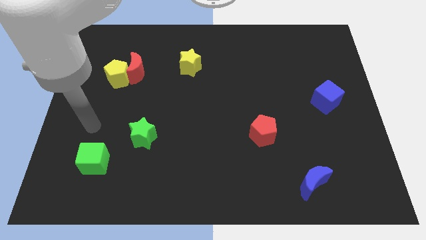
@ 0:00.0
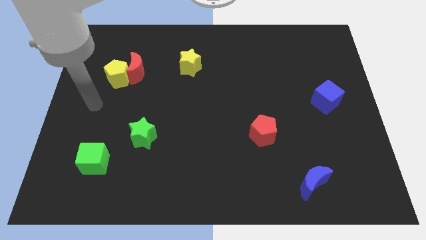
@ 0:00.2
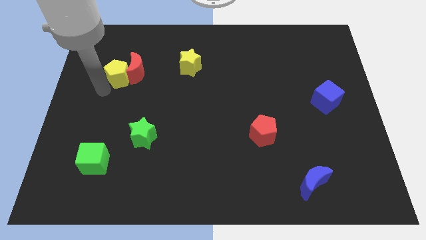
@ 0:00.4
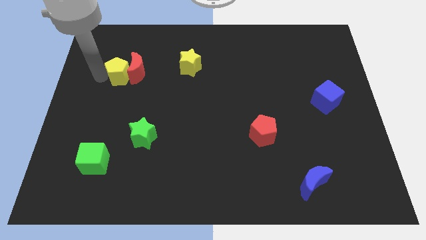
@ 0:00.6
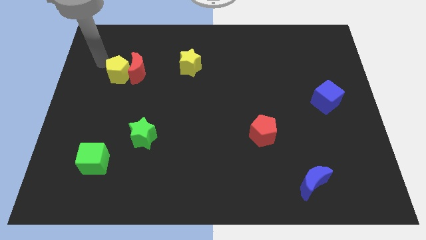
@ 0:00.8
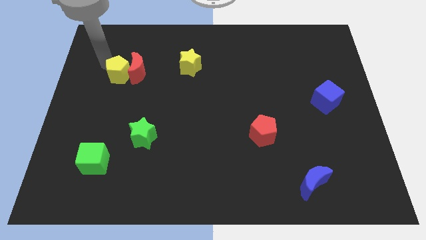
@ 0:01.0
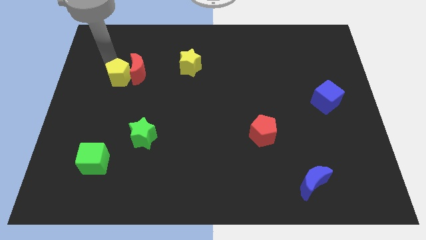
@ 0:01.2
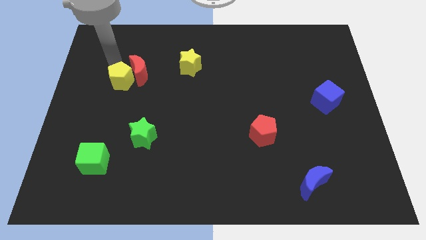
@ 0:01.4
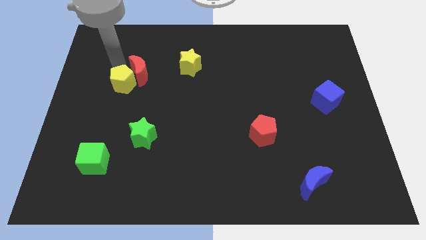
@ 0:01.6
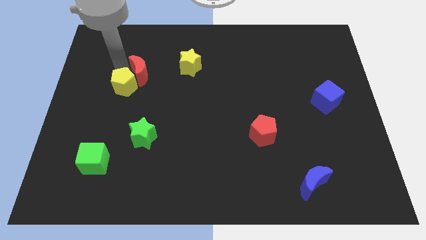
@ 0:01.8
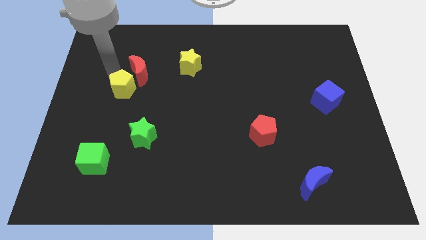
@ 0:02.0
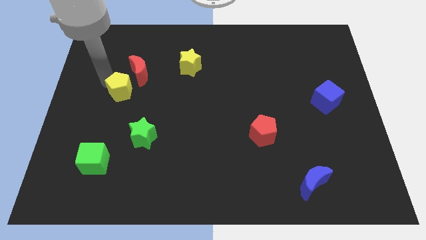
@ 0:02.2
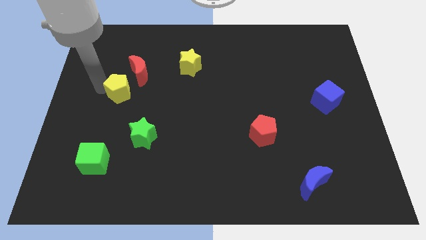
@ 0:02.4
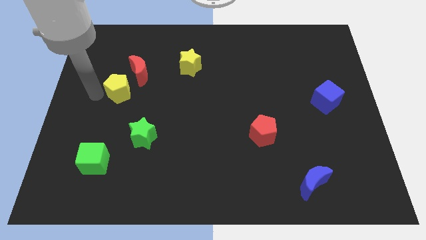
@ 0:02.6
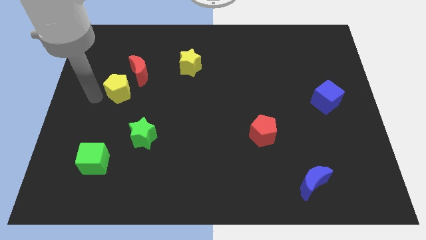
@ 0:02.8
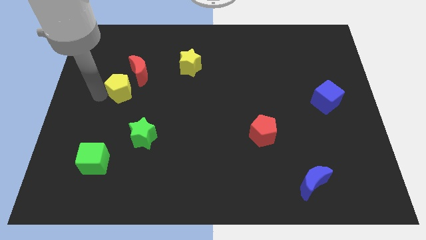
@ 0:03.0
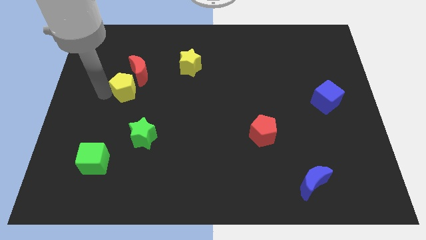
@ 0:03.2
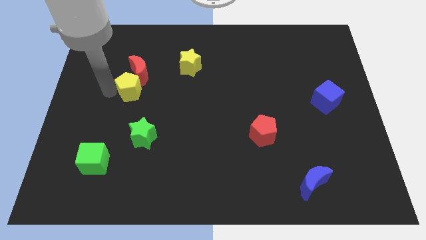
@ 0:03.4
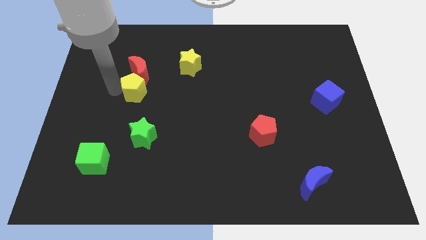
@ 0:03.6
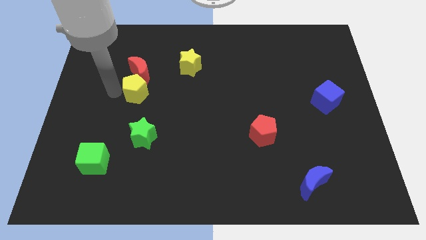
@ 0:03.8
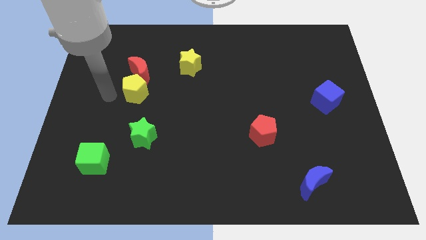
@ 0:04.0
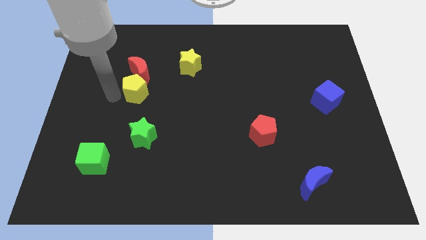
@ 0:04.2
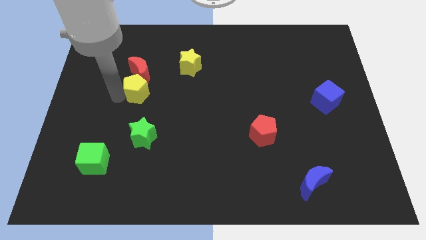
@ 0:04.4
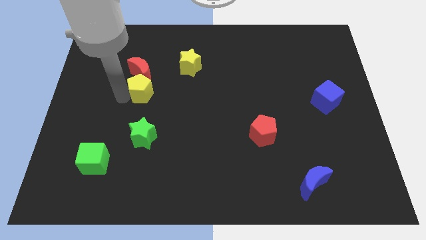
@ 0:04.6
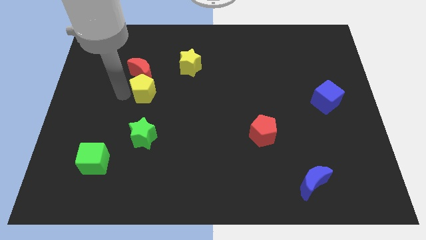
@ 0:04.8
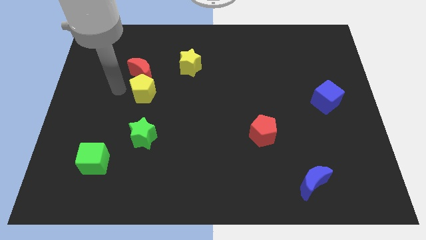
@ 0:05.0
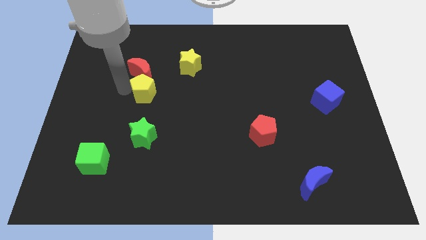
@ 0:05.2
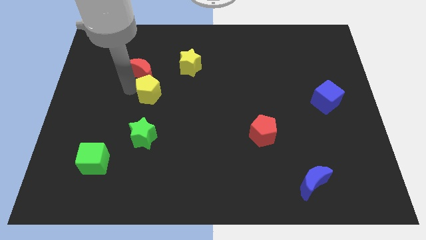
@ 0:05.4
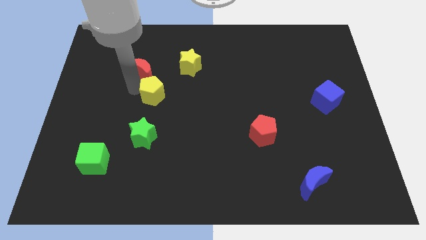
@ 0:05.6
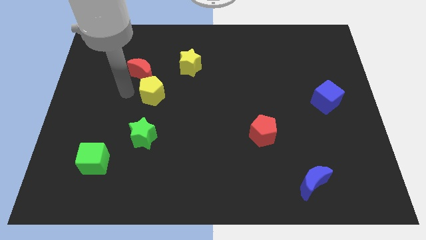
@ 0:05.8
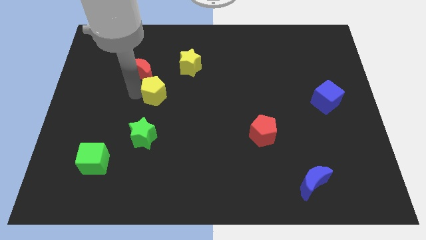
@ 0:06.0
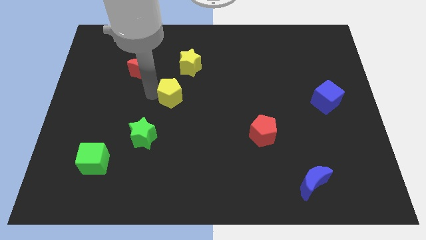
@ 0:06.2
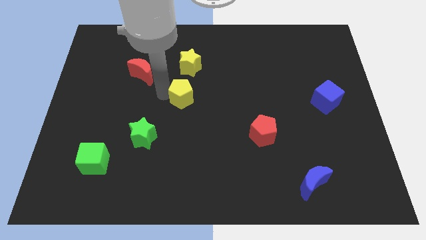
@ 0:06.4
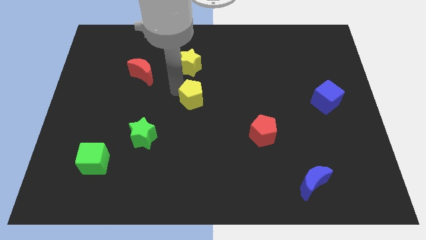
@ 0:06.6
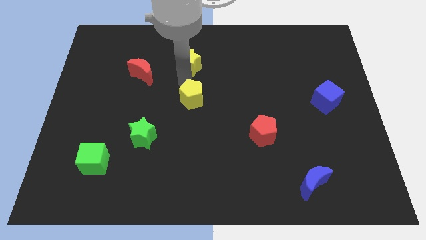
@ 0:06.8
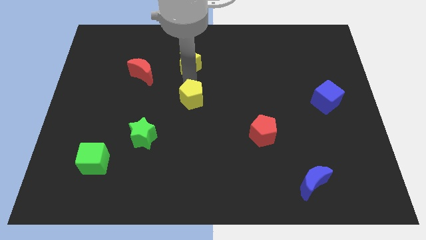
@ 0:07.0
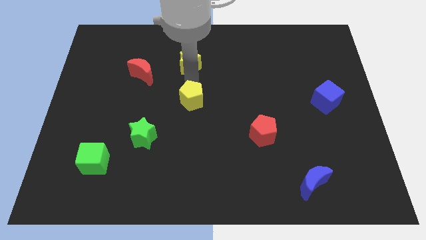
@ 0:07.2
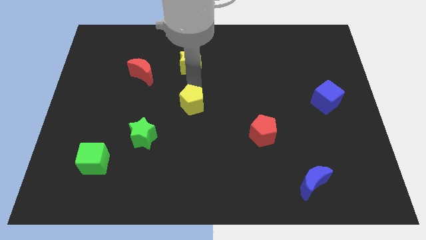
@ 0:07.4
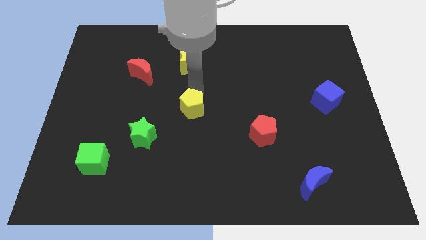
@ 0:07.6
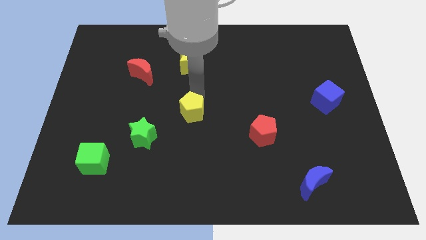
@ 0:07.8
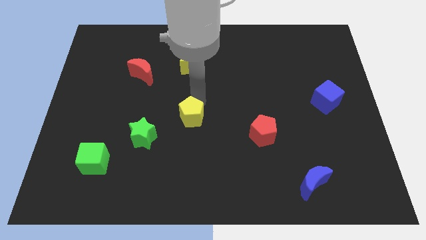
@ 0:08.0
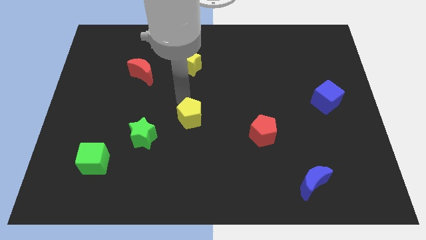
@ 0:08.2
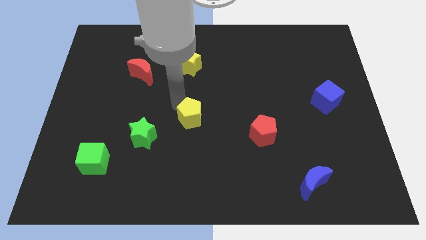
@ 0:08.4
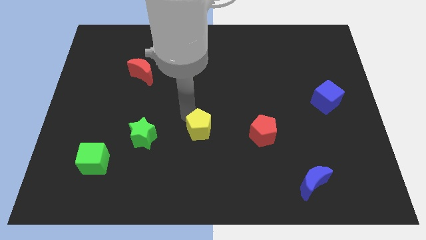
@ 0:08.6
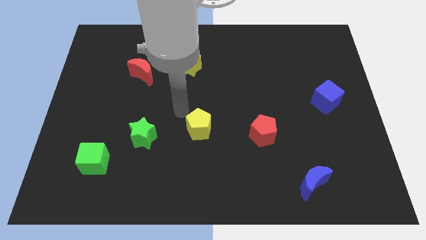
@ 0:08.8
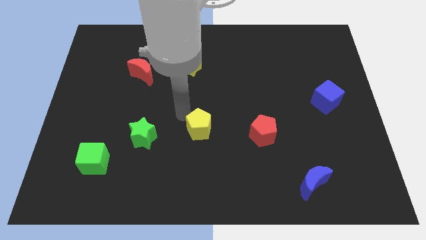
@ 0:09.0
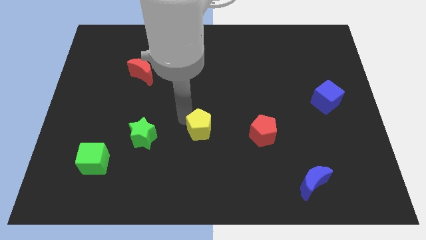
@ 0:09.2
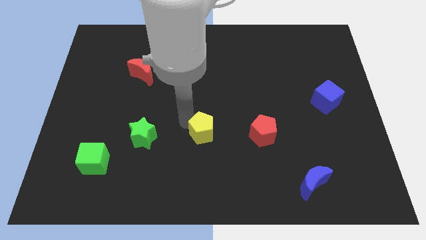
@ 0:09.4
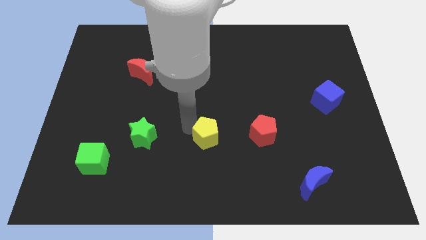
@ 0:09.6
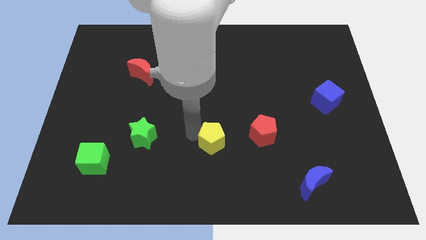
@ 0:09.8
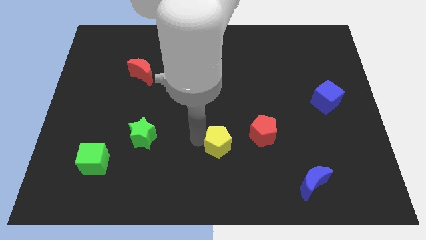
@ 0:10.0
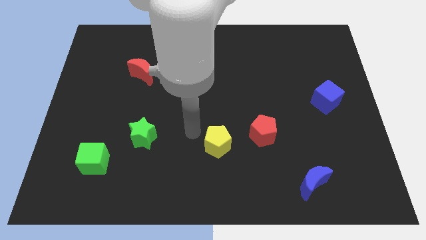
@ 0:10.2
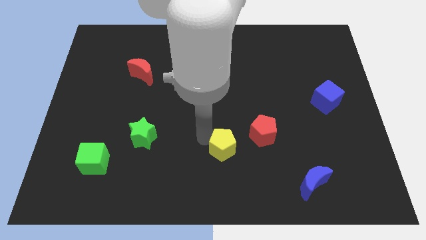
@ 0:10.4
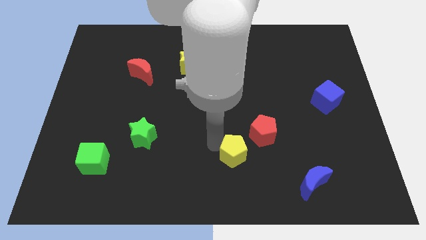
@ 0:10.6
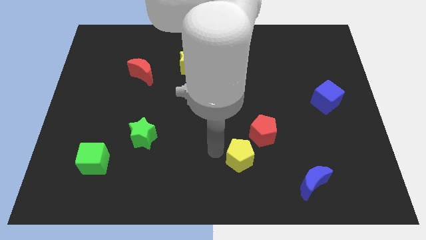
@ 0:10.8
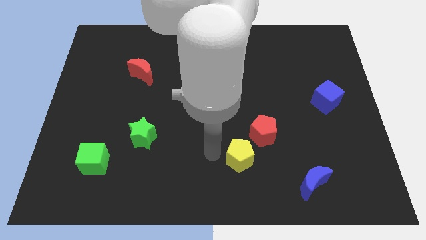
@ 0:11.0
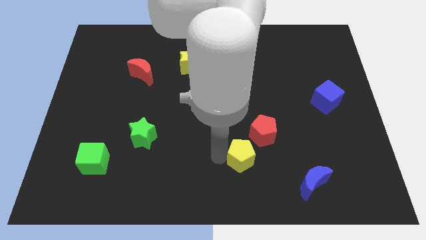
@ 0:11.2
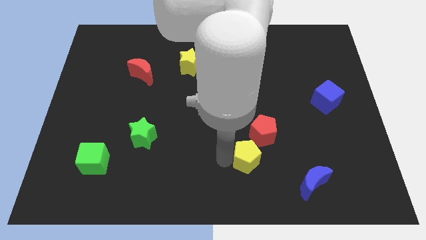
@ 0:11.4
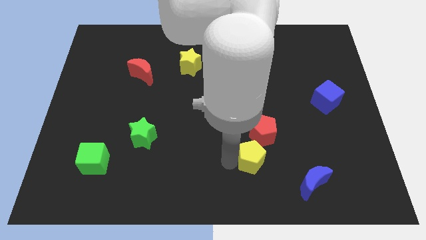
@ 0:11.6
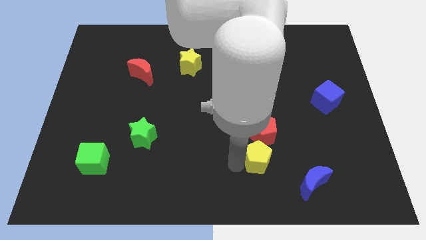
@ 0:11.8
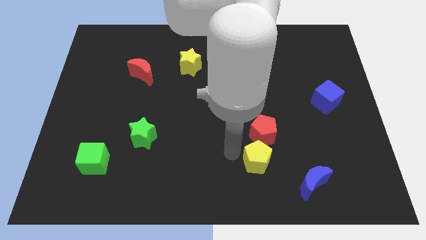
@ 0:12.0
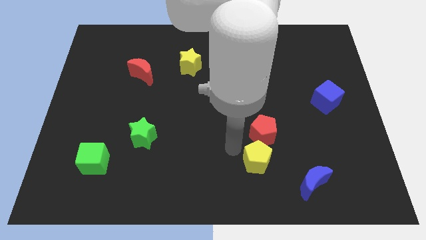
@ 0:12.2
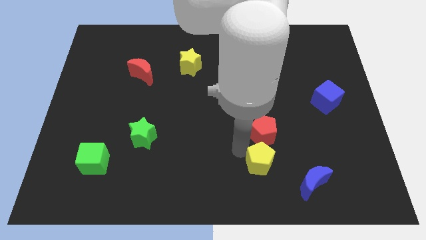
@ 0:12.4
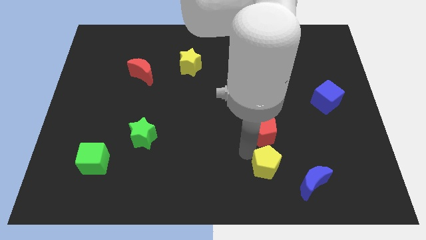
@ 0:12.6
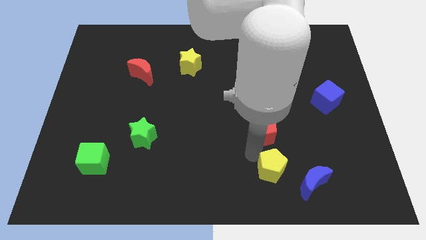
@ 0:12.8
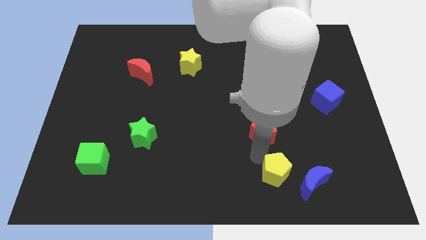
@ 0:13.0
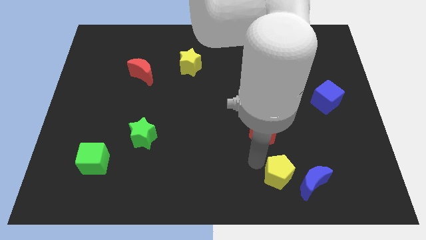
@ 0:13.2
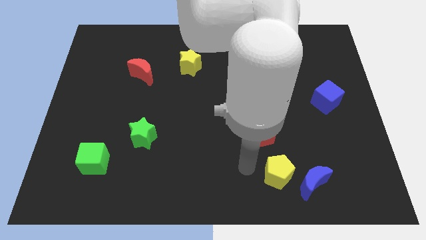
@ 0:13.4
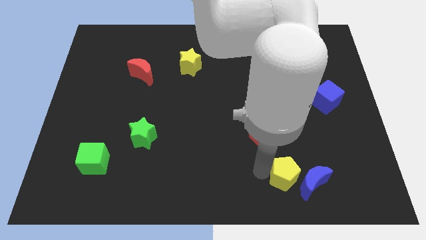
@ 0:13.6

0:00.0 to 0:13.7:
put the yellow pentagon close to the blue moon
